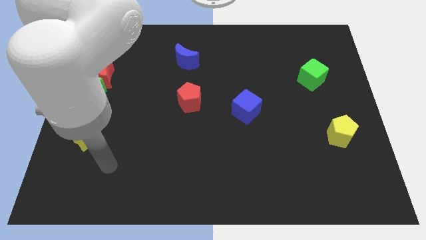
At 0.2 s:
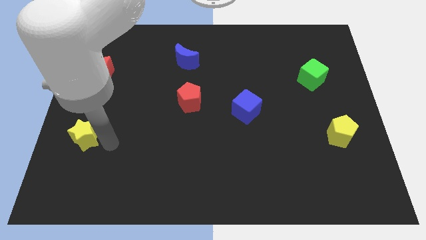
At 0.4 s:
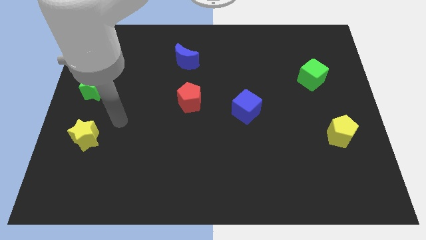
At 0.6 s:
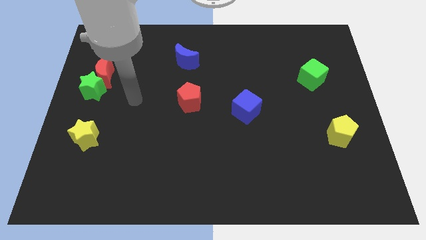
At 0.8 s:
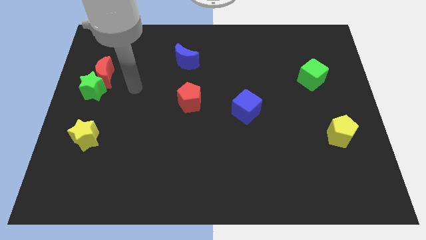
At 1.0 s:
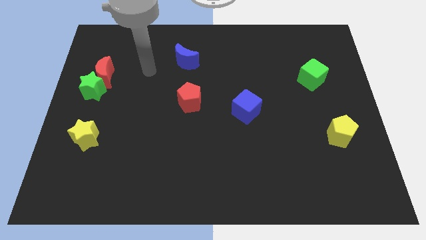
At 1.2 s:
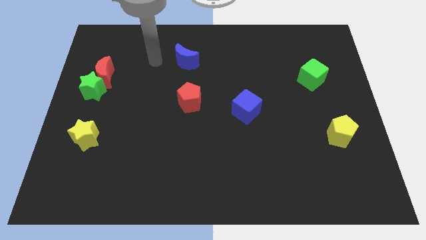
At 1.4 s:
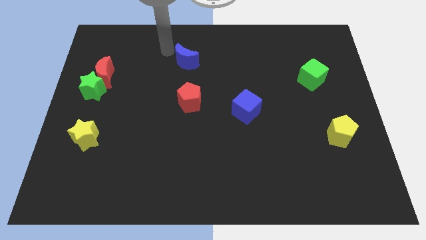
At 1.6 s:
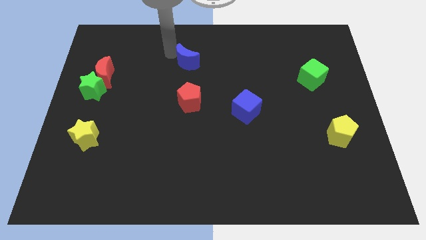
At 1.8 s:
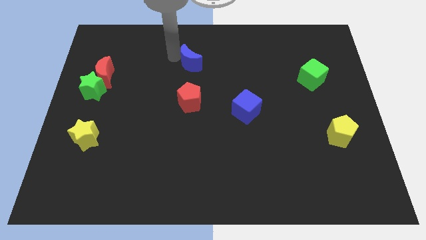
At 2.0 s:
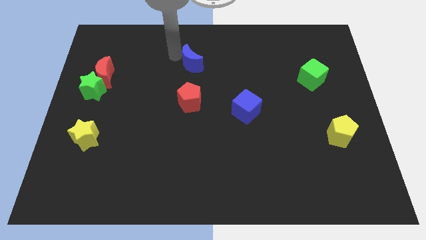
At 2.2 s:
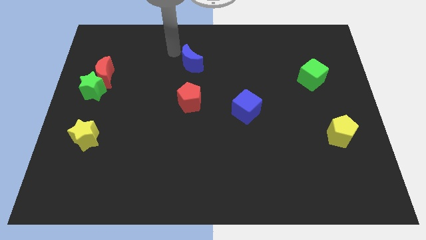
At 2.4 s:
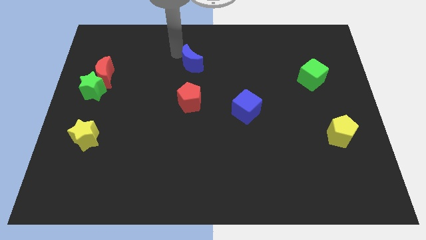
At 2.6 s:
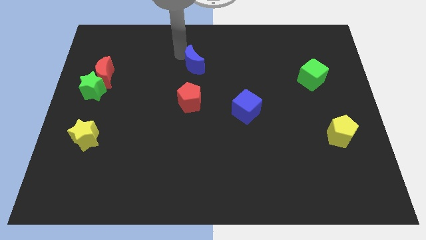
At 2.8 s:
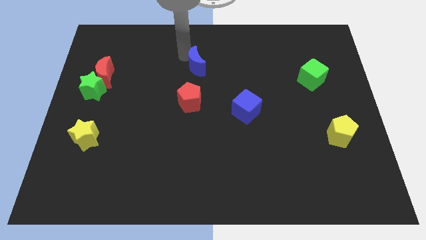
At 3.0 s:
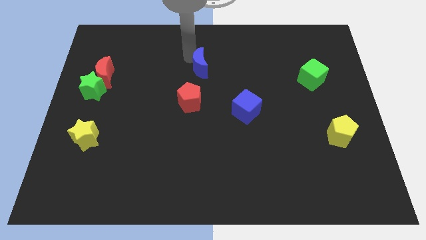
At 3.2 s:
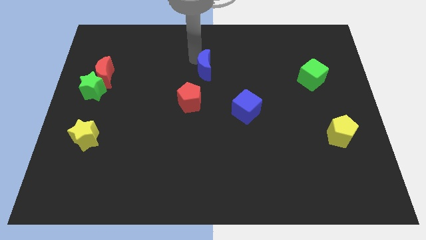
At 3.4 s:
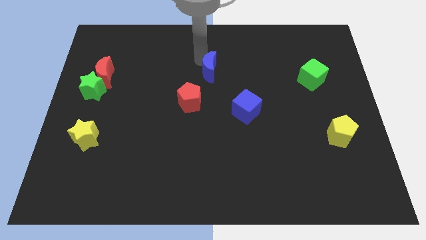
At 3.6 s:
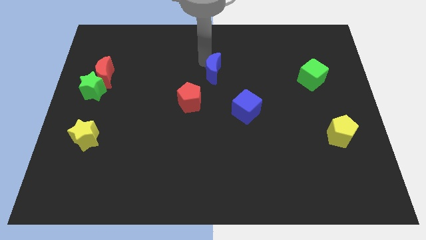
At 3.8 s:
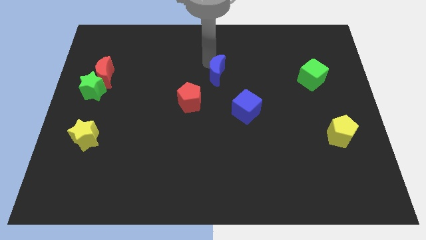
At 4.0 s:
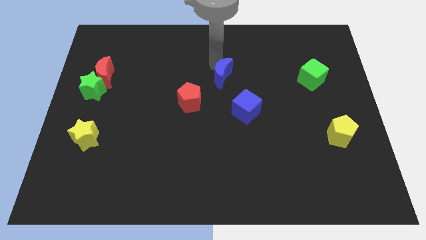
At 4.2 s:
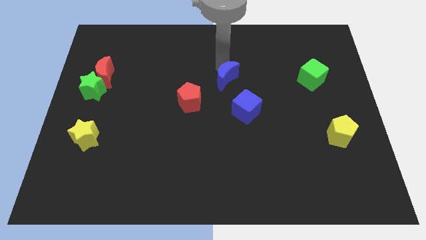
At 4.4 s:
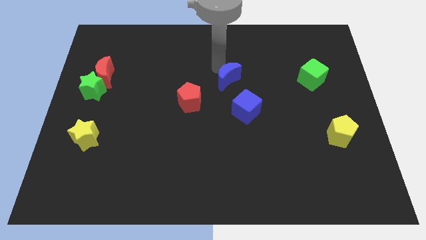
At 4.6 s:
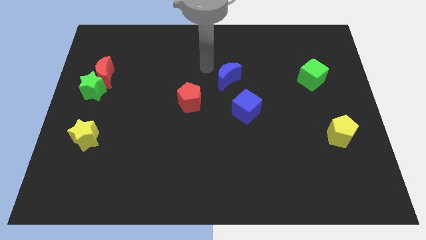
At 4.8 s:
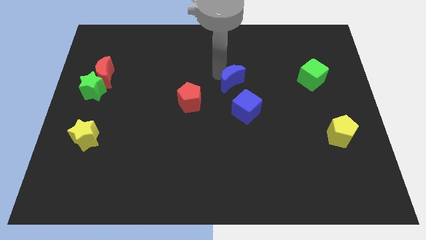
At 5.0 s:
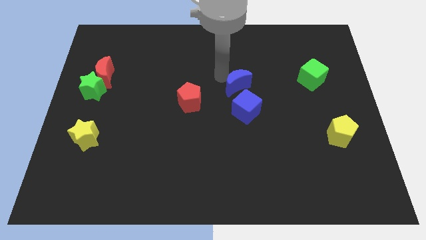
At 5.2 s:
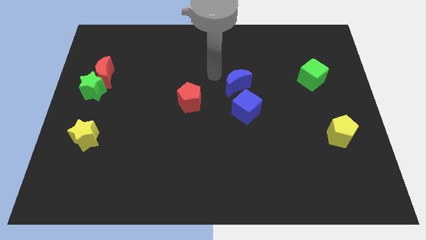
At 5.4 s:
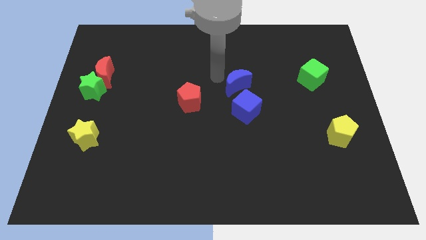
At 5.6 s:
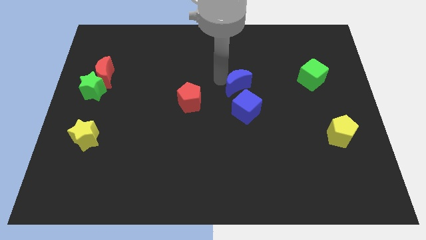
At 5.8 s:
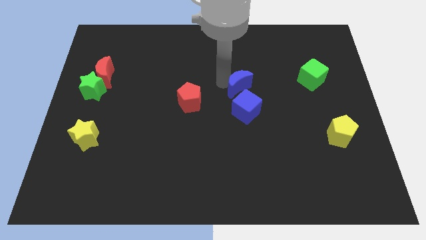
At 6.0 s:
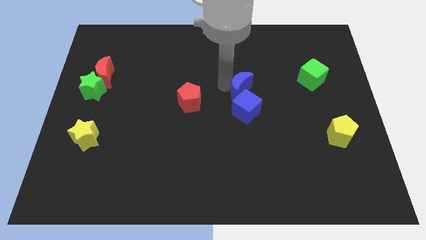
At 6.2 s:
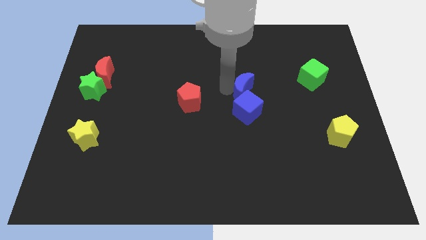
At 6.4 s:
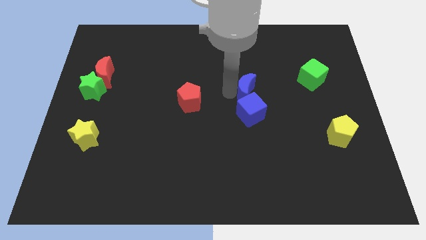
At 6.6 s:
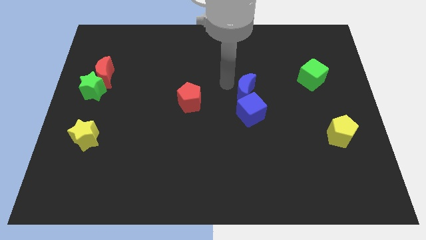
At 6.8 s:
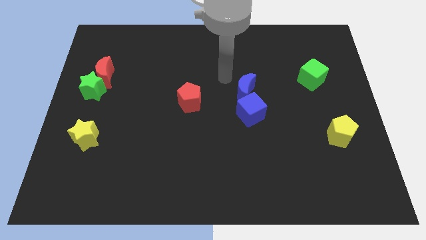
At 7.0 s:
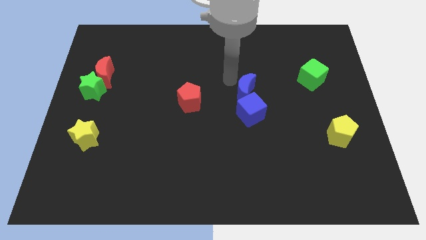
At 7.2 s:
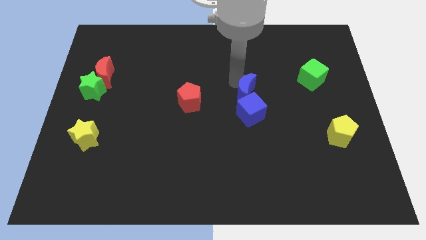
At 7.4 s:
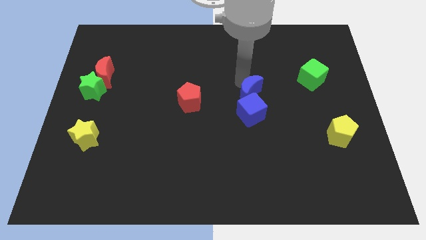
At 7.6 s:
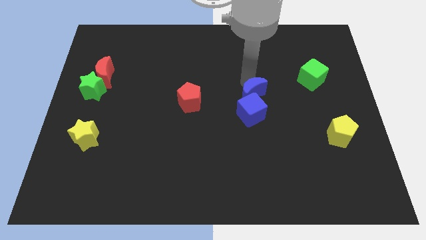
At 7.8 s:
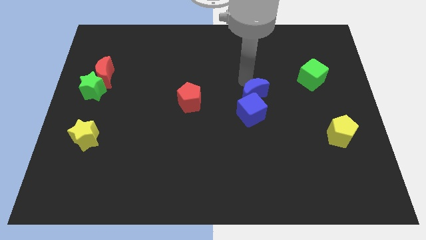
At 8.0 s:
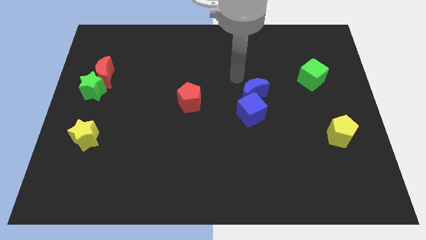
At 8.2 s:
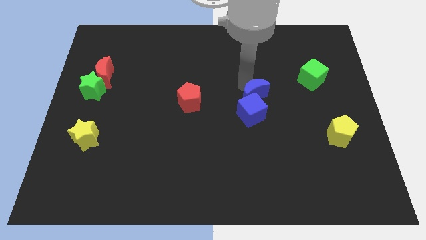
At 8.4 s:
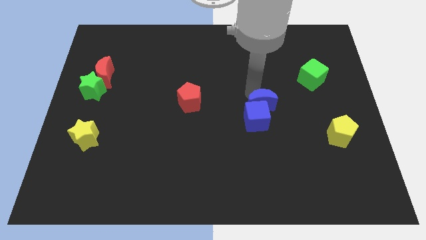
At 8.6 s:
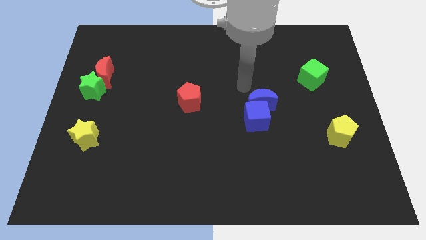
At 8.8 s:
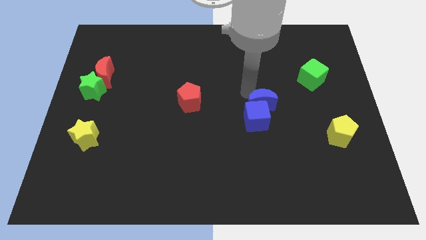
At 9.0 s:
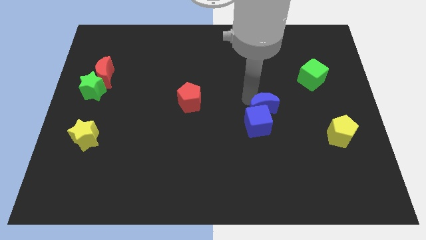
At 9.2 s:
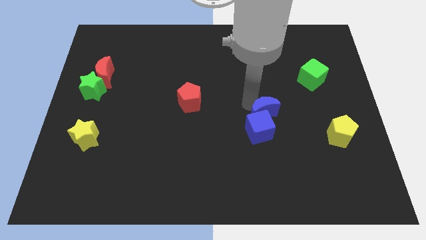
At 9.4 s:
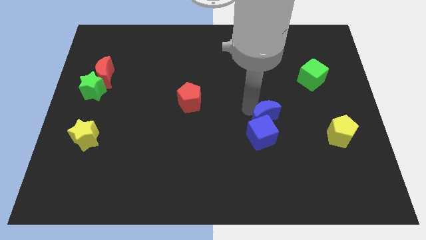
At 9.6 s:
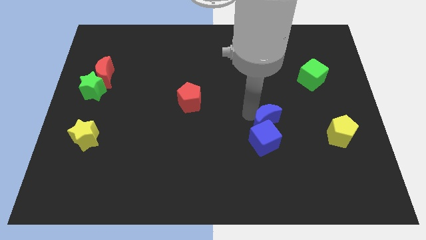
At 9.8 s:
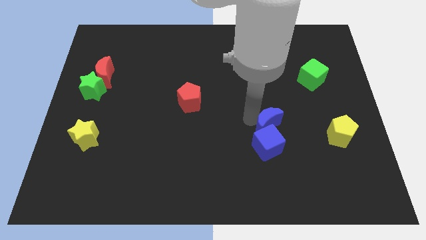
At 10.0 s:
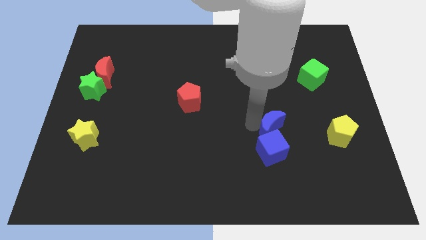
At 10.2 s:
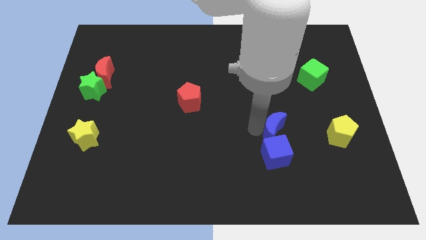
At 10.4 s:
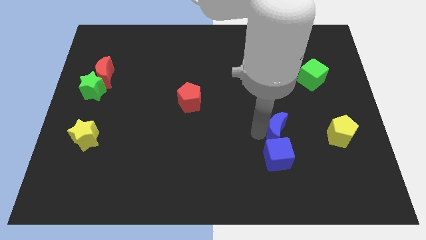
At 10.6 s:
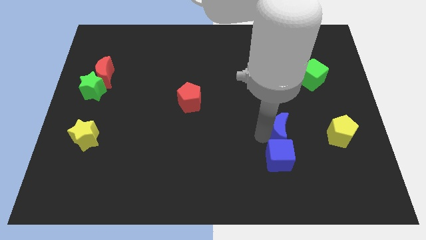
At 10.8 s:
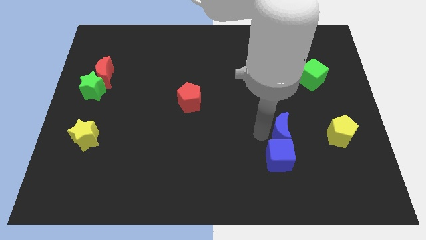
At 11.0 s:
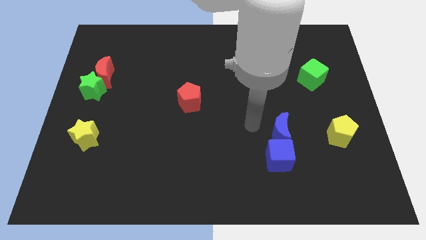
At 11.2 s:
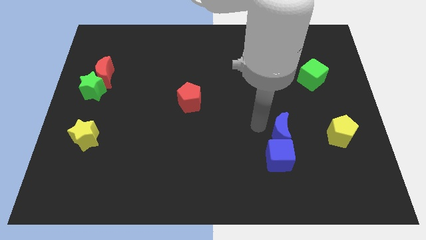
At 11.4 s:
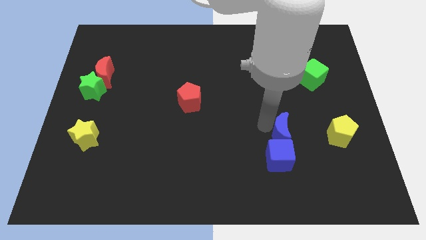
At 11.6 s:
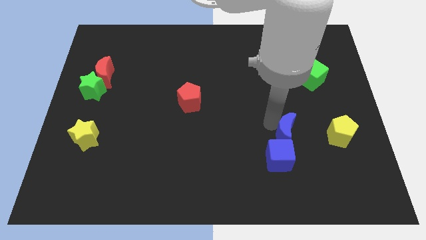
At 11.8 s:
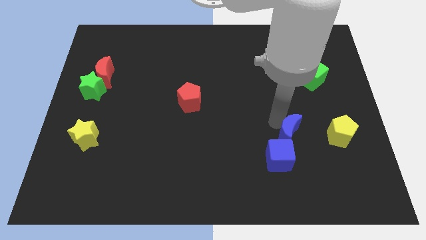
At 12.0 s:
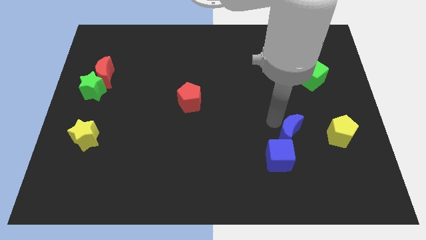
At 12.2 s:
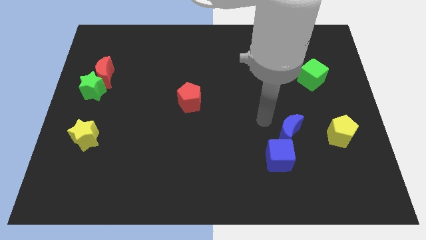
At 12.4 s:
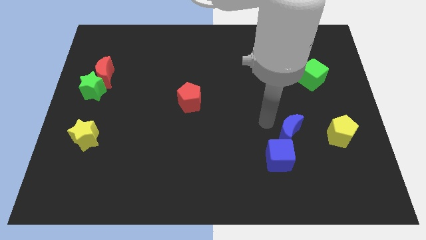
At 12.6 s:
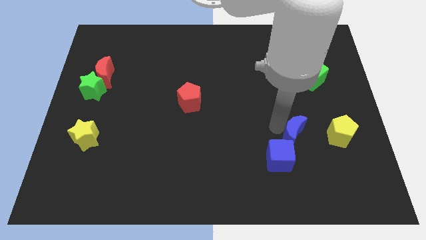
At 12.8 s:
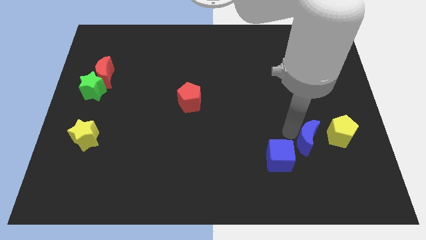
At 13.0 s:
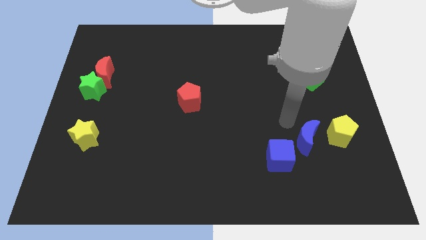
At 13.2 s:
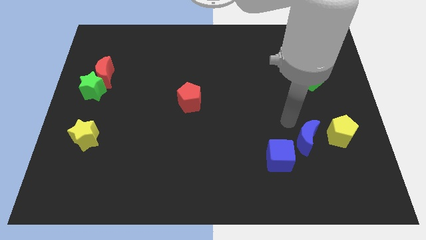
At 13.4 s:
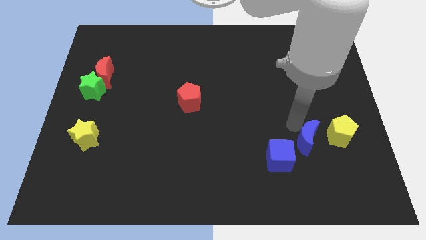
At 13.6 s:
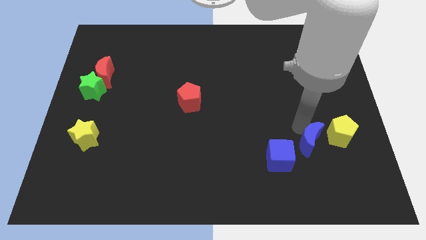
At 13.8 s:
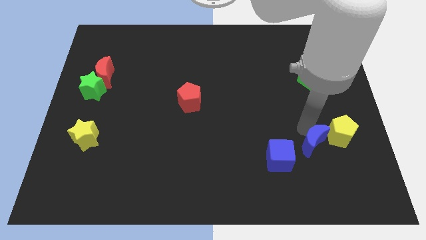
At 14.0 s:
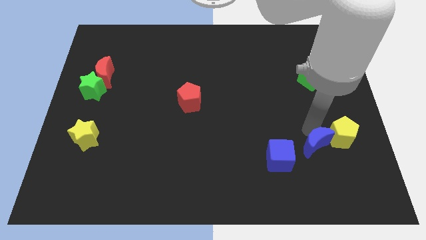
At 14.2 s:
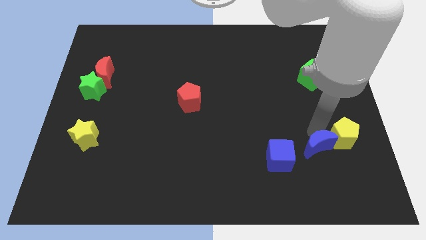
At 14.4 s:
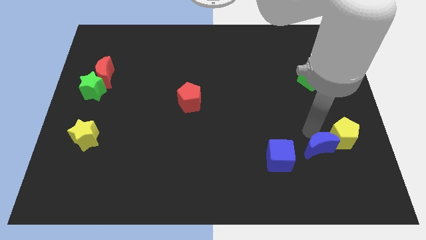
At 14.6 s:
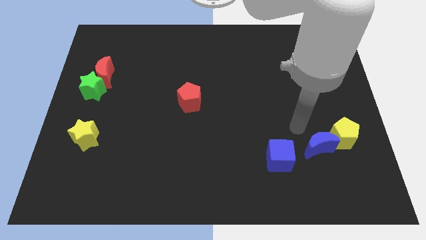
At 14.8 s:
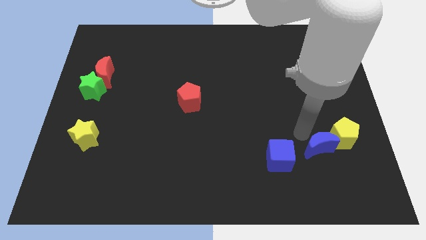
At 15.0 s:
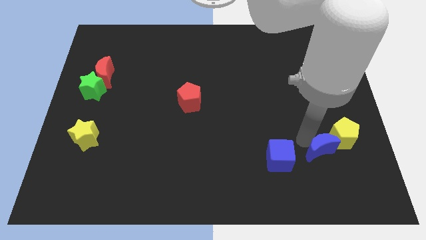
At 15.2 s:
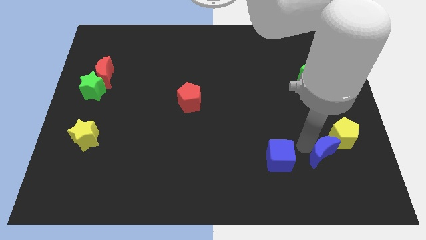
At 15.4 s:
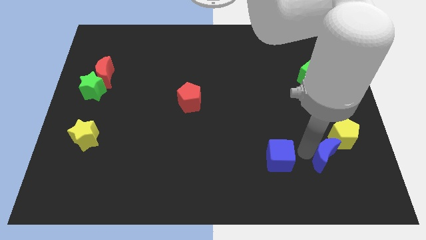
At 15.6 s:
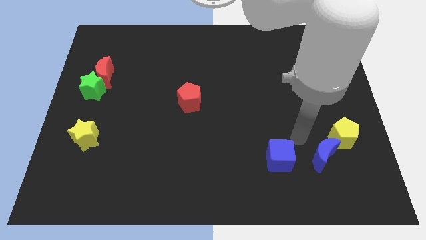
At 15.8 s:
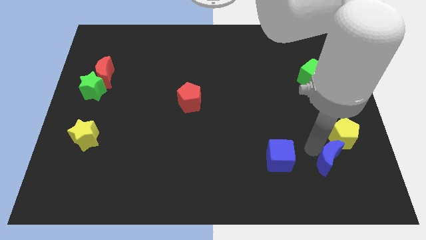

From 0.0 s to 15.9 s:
move the blue moon to the bottom of the yellow pentagon
